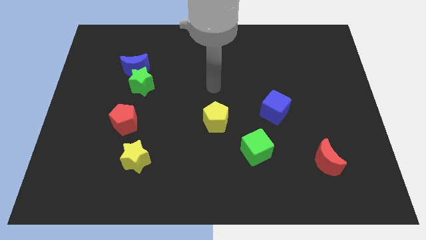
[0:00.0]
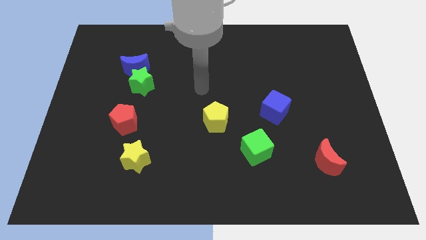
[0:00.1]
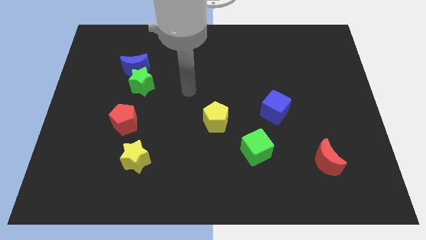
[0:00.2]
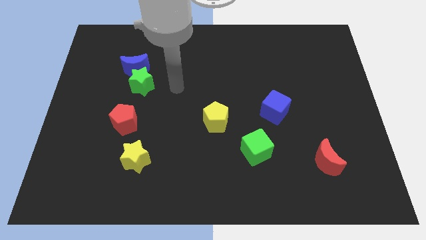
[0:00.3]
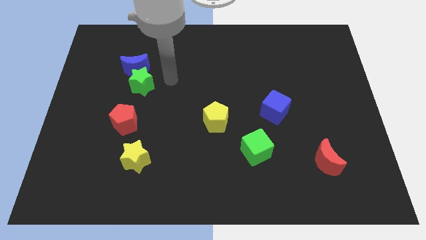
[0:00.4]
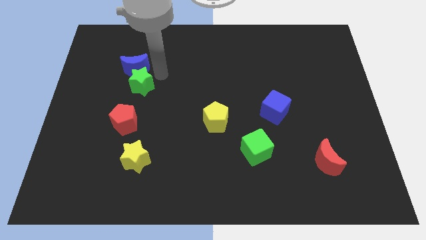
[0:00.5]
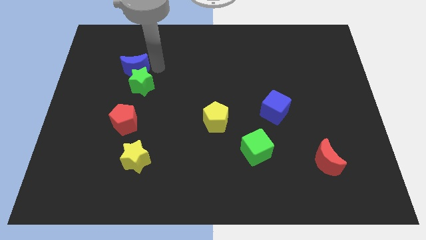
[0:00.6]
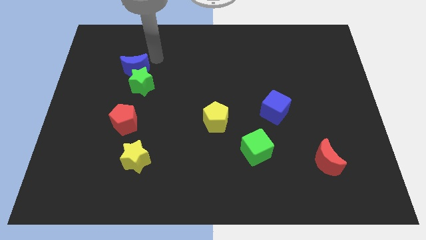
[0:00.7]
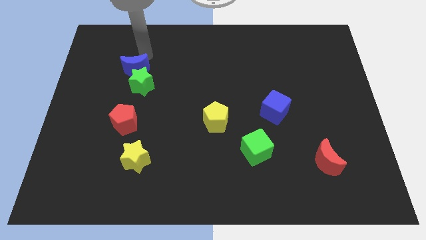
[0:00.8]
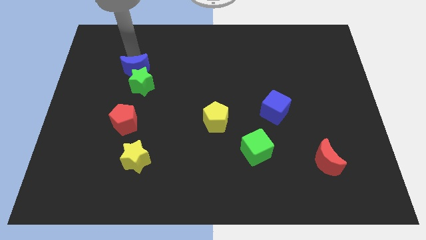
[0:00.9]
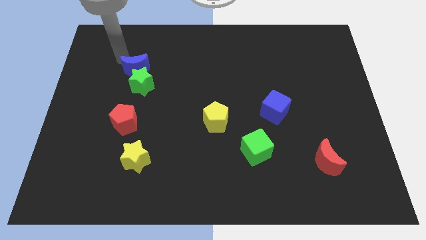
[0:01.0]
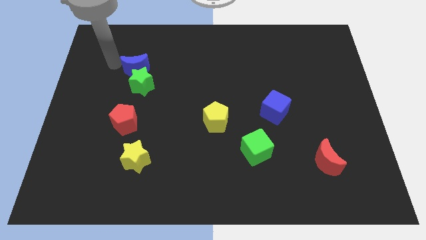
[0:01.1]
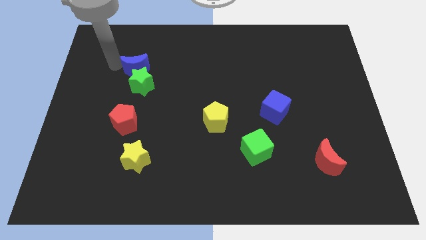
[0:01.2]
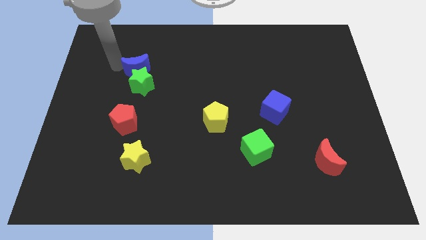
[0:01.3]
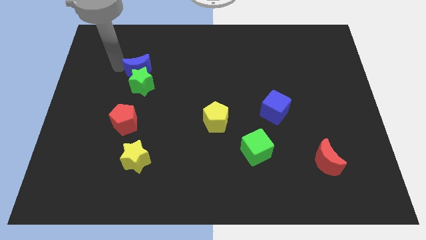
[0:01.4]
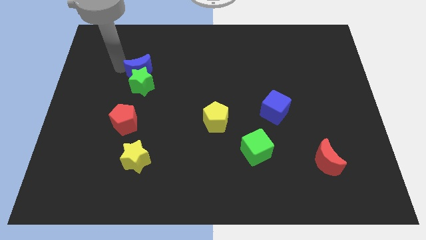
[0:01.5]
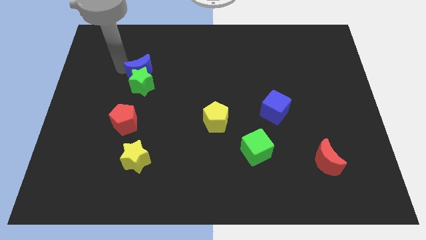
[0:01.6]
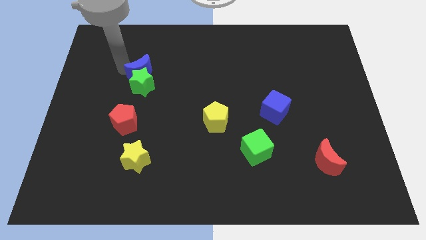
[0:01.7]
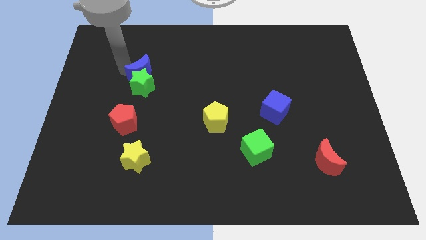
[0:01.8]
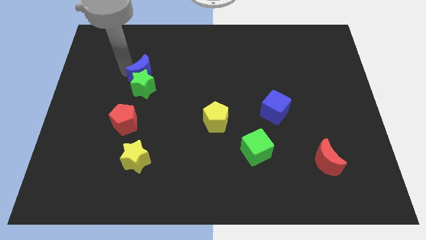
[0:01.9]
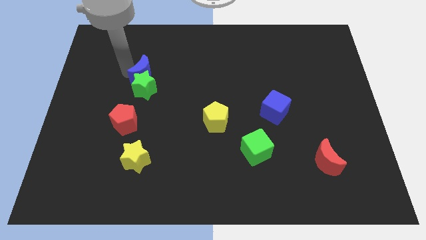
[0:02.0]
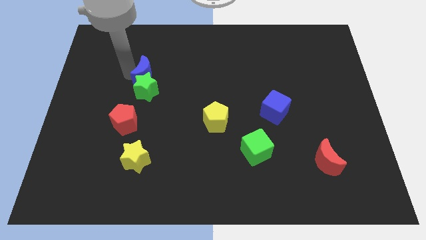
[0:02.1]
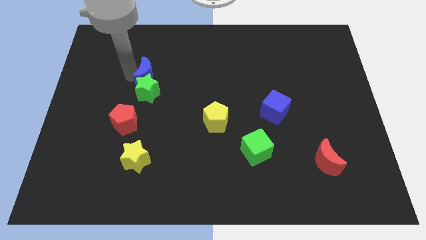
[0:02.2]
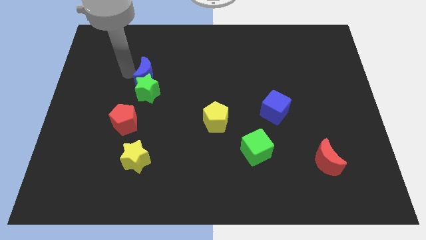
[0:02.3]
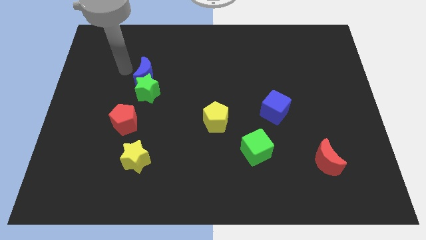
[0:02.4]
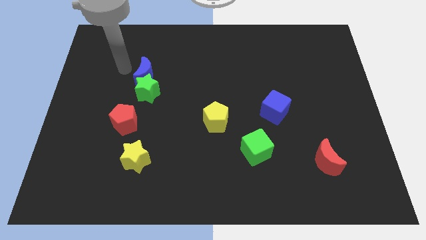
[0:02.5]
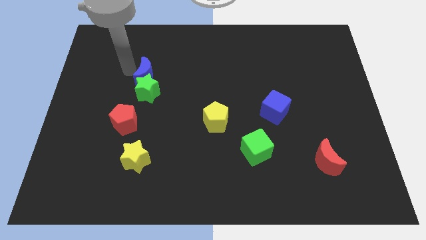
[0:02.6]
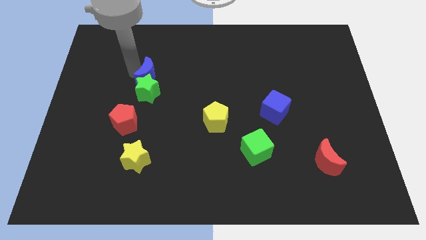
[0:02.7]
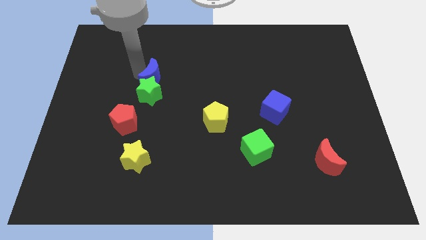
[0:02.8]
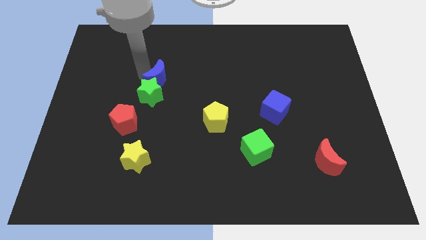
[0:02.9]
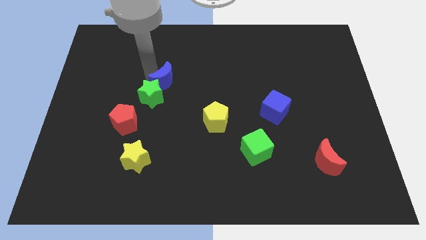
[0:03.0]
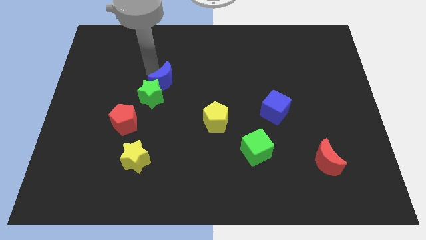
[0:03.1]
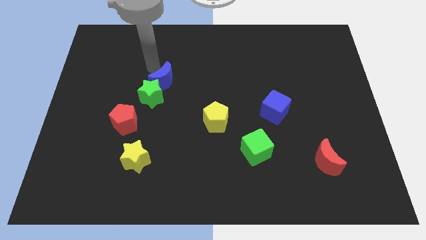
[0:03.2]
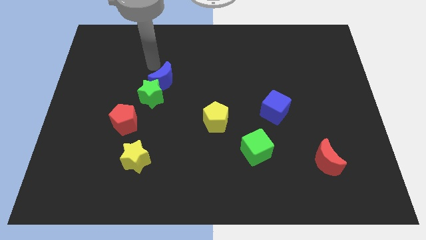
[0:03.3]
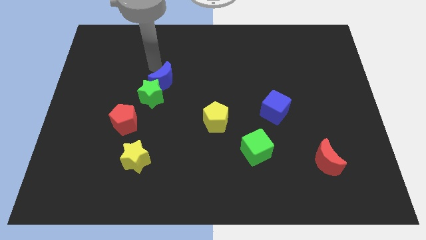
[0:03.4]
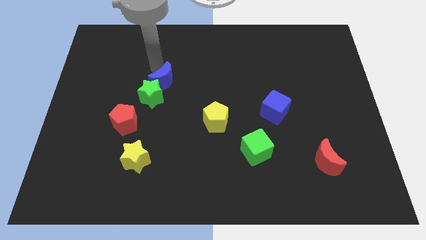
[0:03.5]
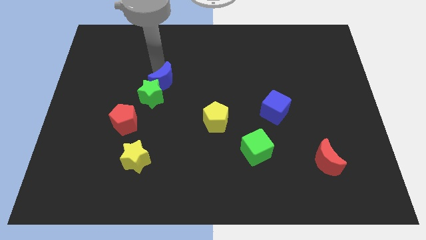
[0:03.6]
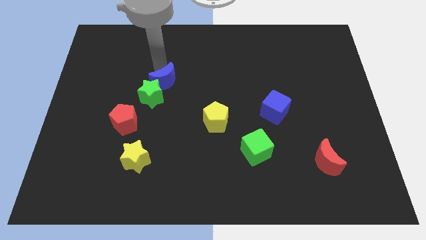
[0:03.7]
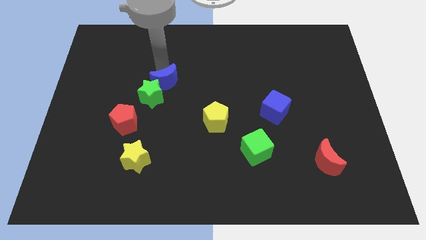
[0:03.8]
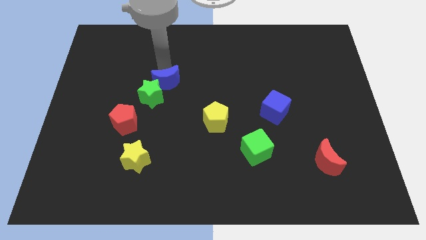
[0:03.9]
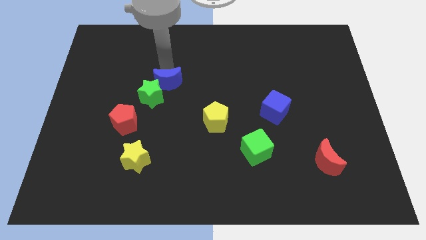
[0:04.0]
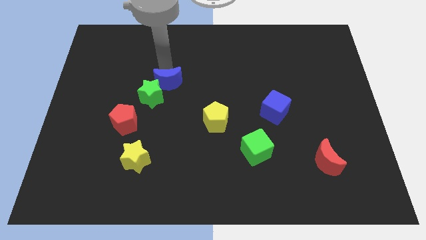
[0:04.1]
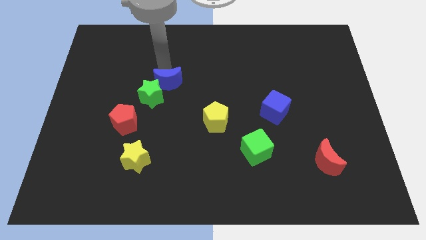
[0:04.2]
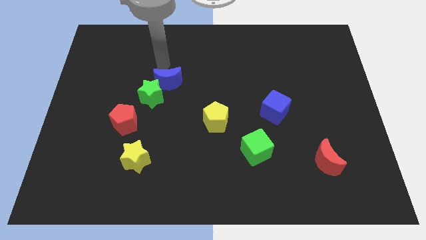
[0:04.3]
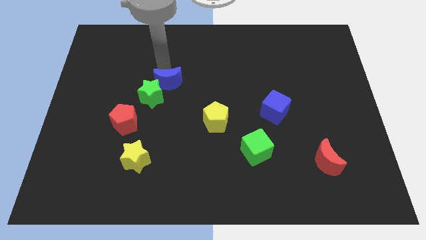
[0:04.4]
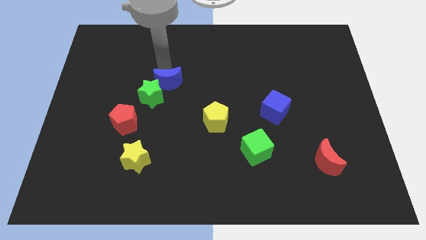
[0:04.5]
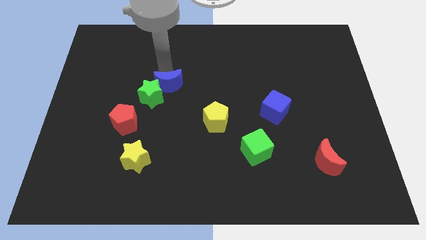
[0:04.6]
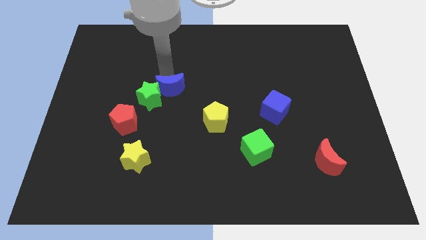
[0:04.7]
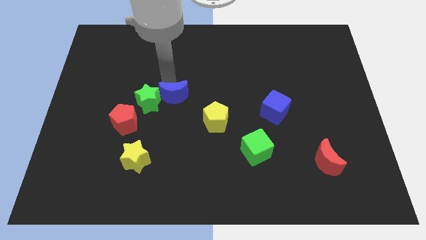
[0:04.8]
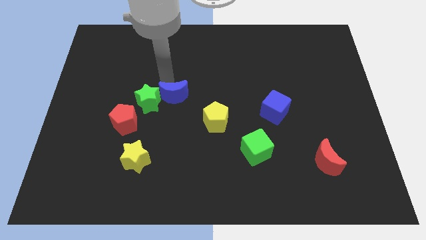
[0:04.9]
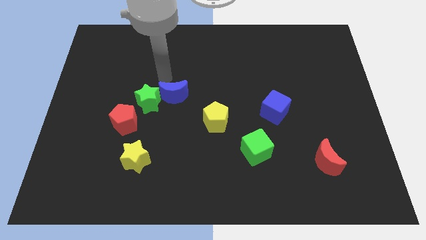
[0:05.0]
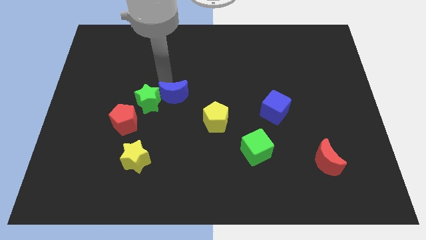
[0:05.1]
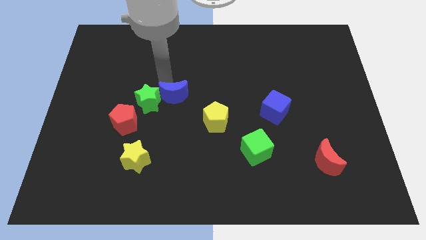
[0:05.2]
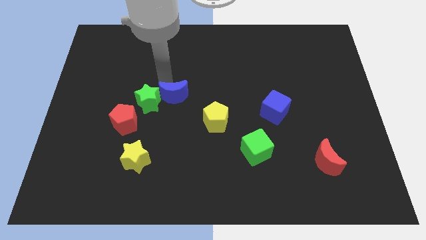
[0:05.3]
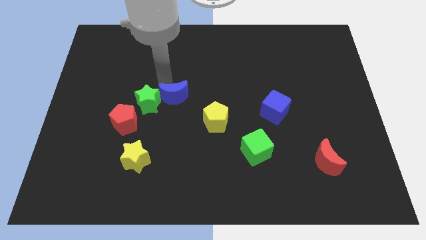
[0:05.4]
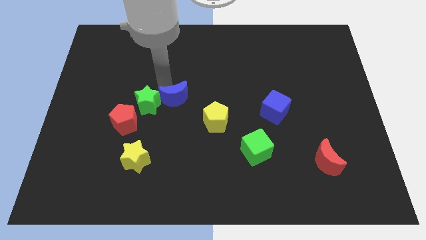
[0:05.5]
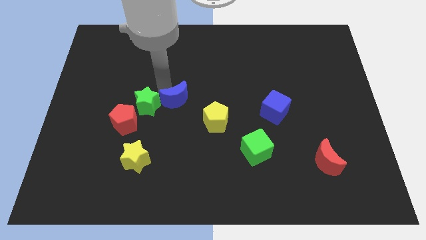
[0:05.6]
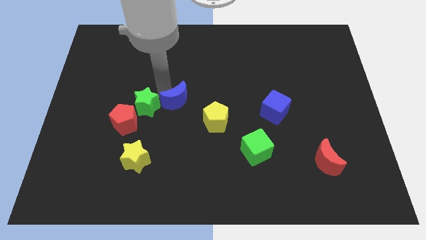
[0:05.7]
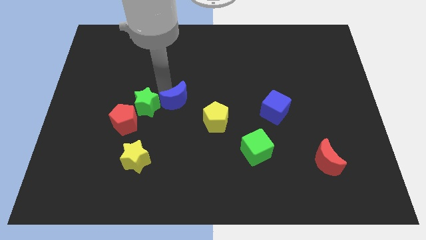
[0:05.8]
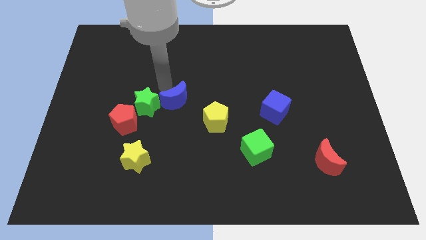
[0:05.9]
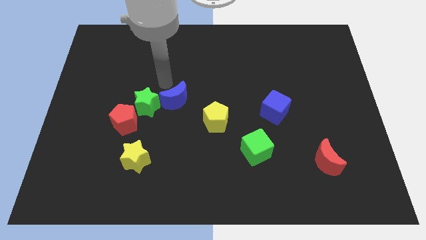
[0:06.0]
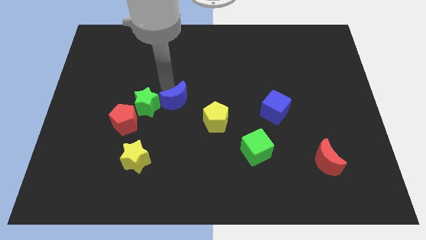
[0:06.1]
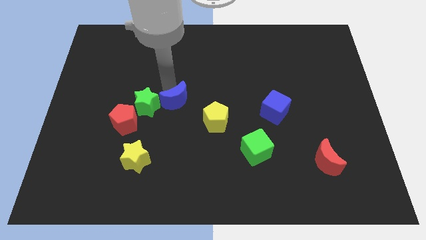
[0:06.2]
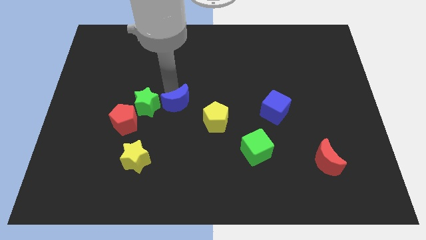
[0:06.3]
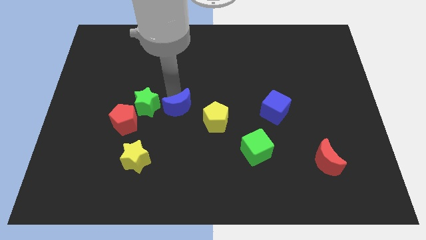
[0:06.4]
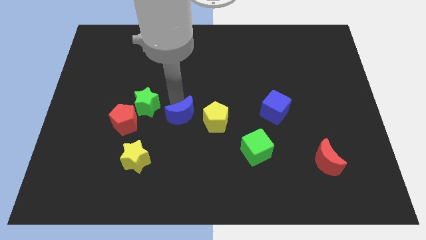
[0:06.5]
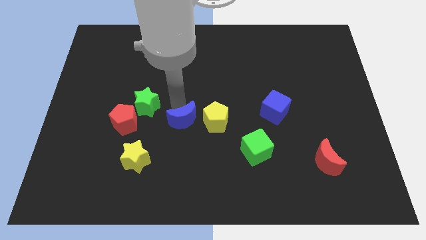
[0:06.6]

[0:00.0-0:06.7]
push the blue moon downwards and to the right

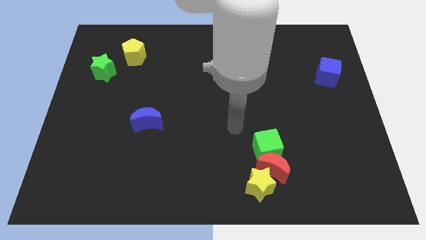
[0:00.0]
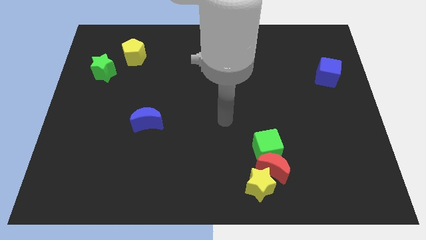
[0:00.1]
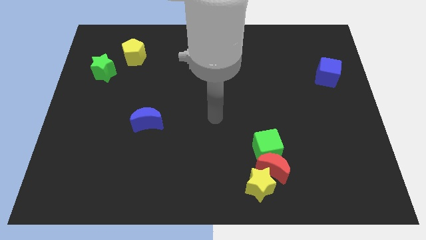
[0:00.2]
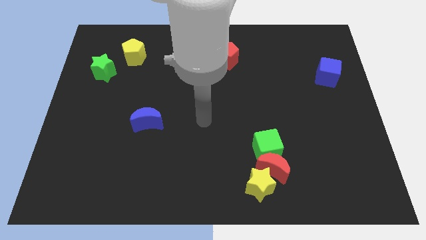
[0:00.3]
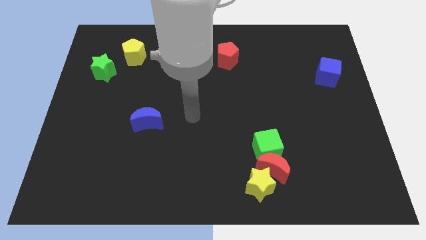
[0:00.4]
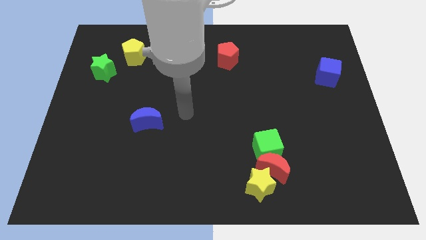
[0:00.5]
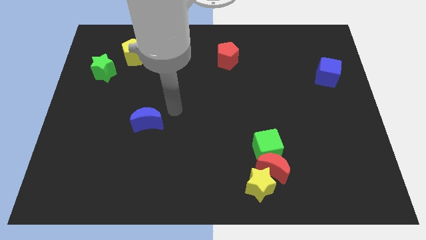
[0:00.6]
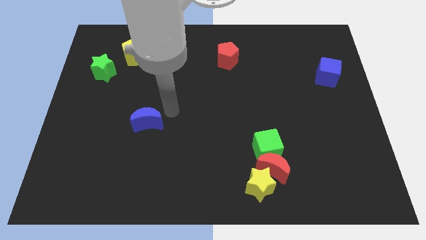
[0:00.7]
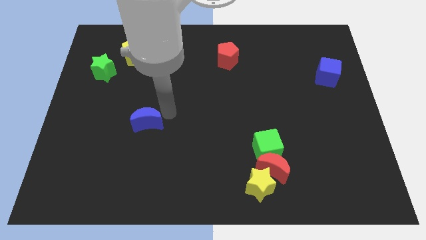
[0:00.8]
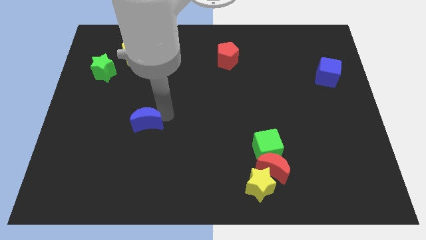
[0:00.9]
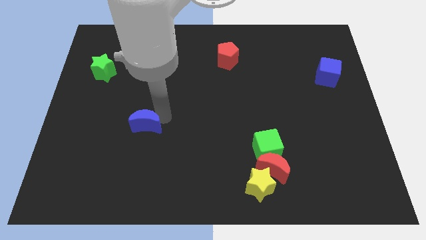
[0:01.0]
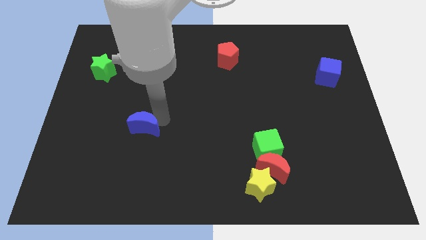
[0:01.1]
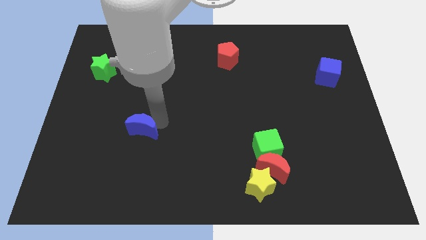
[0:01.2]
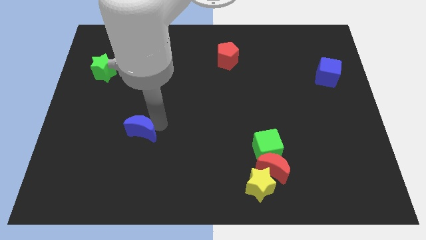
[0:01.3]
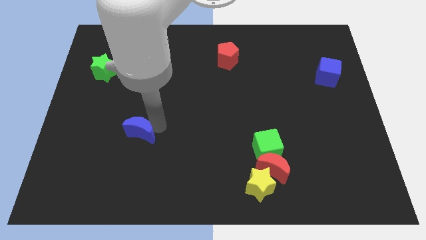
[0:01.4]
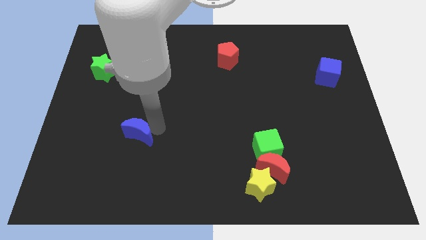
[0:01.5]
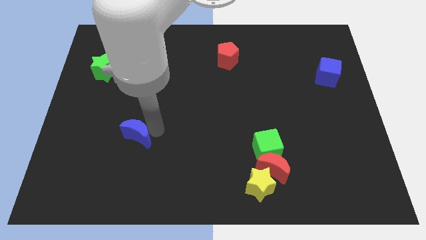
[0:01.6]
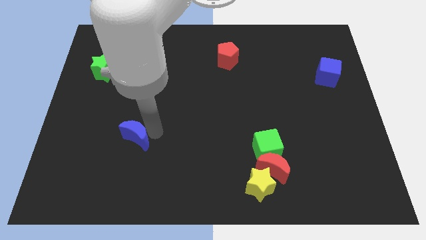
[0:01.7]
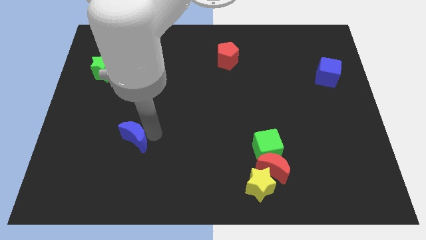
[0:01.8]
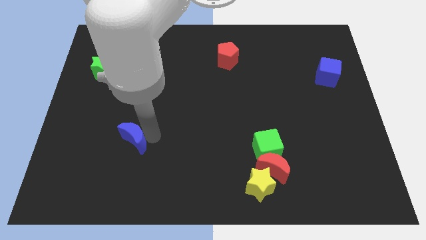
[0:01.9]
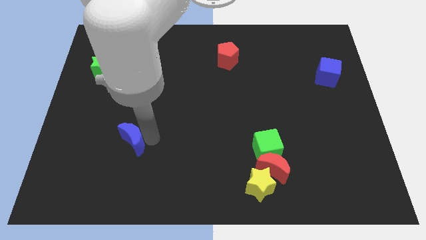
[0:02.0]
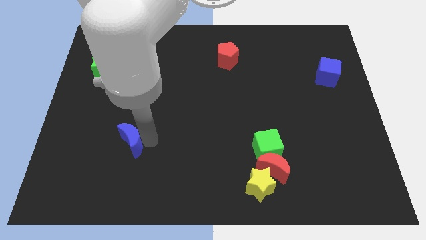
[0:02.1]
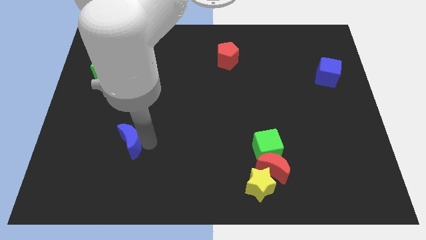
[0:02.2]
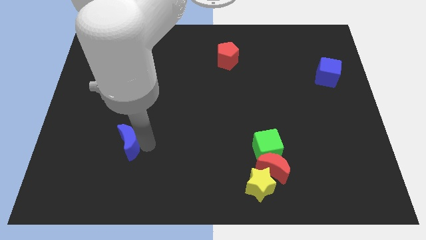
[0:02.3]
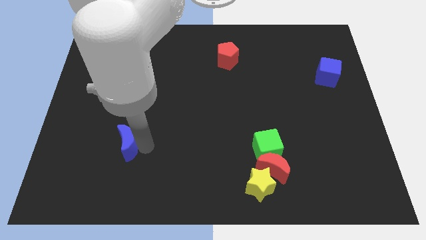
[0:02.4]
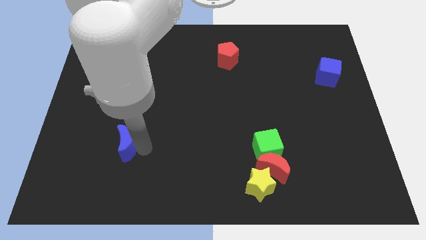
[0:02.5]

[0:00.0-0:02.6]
slide the blue moon downwards and to the left a little
